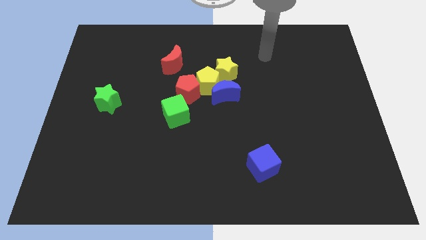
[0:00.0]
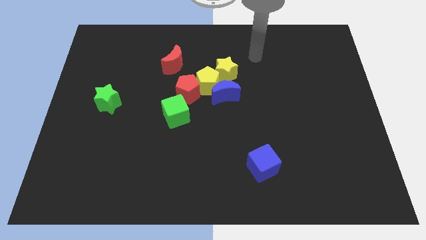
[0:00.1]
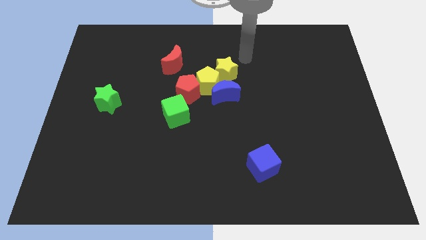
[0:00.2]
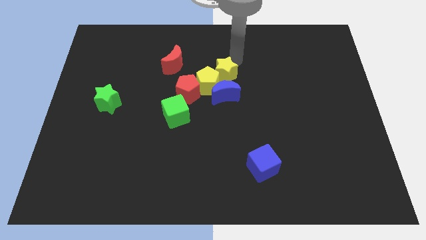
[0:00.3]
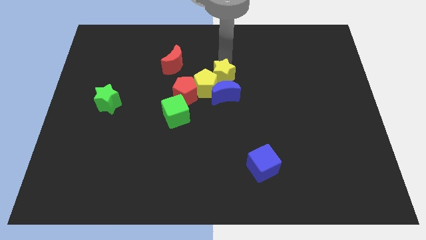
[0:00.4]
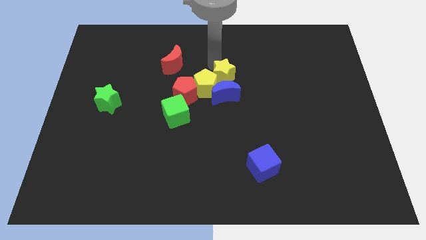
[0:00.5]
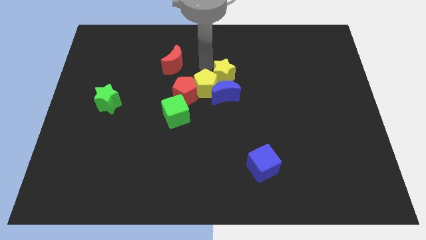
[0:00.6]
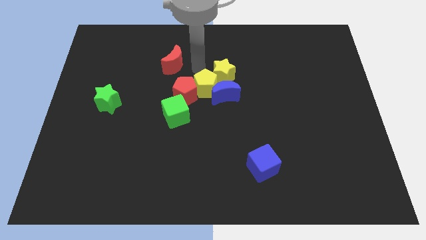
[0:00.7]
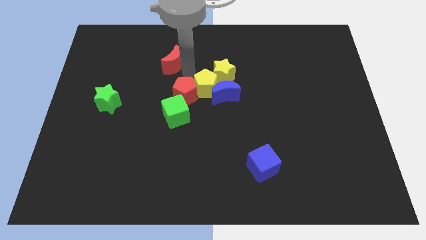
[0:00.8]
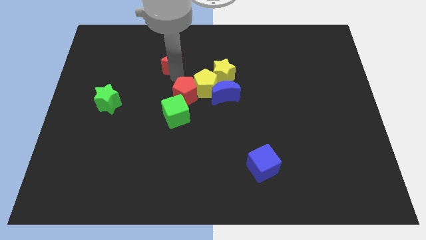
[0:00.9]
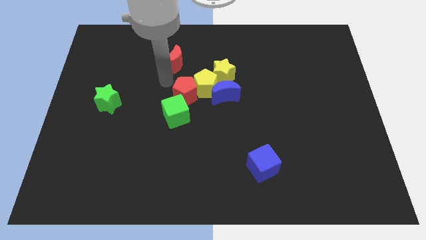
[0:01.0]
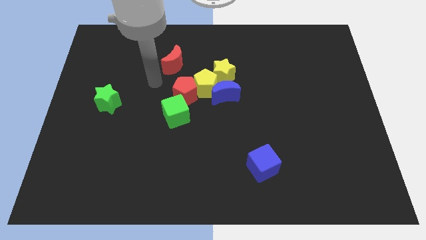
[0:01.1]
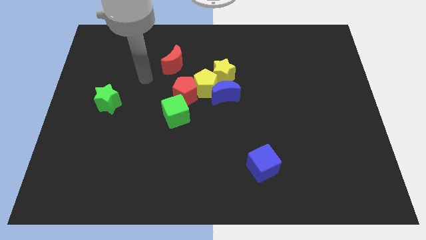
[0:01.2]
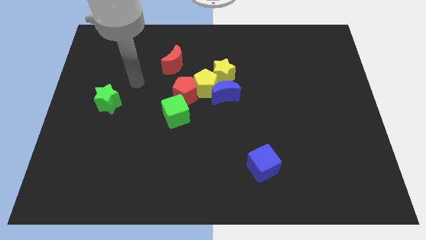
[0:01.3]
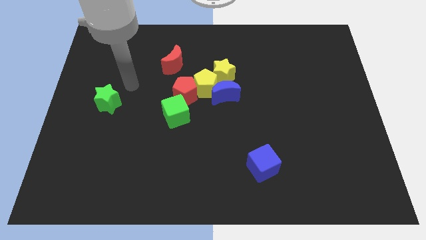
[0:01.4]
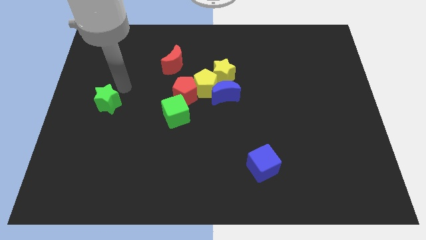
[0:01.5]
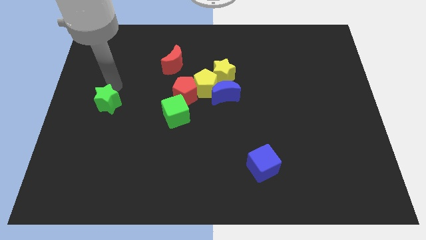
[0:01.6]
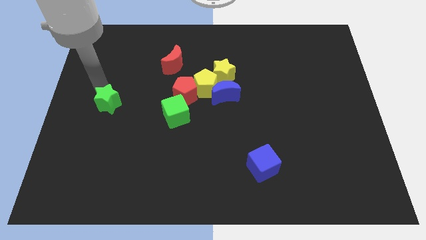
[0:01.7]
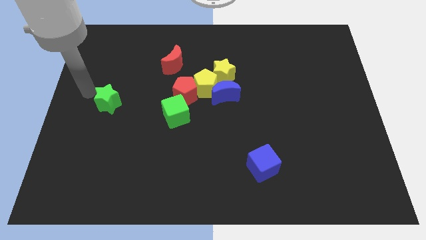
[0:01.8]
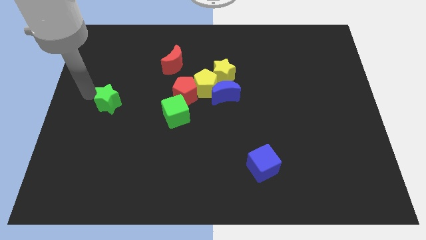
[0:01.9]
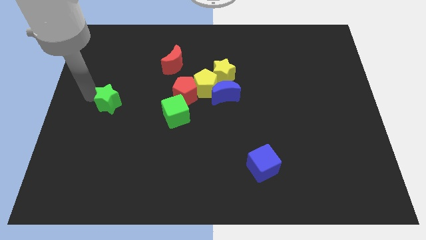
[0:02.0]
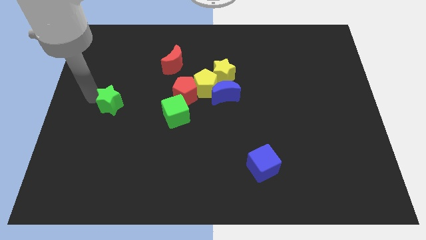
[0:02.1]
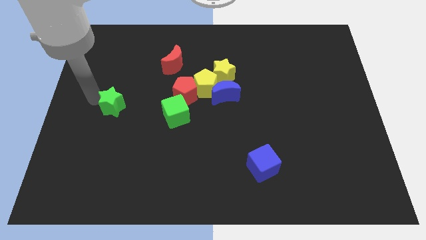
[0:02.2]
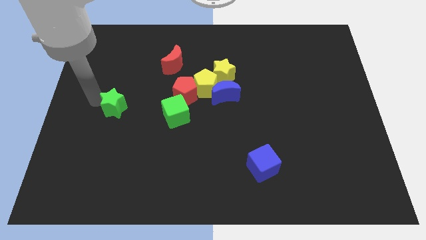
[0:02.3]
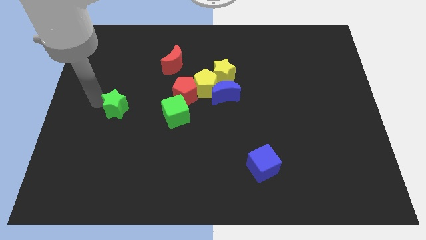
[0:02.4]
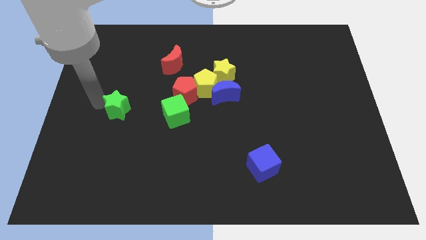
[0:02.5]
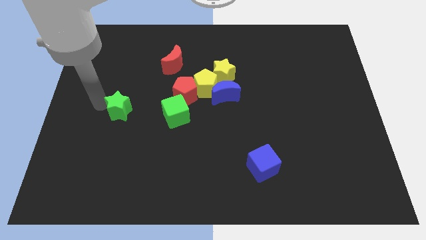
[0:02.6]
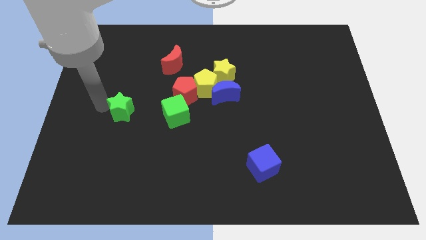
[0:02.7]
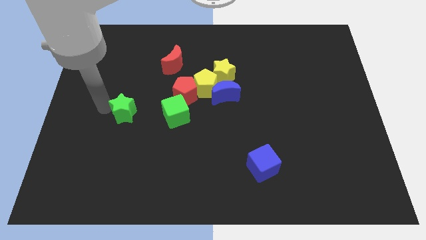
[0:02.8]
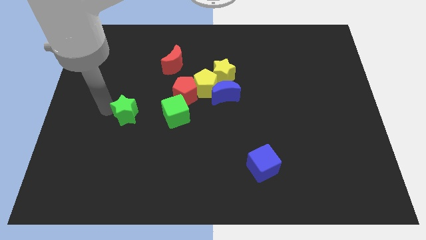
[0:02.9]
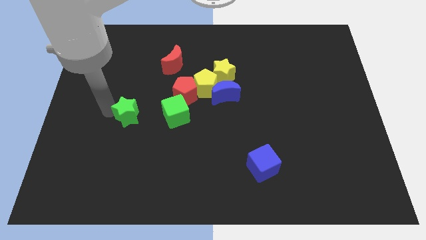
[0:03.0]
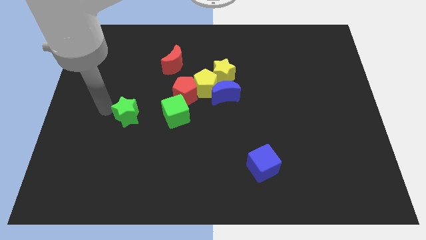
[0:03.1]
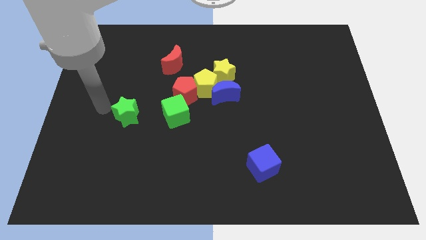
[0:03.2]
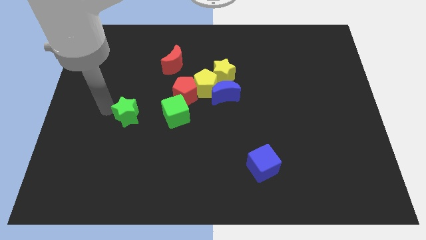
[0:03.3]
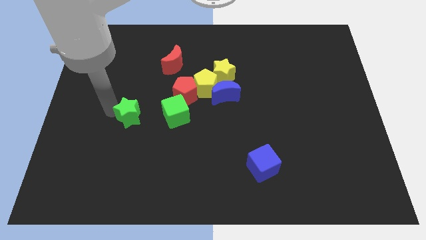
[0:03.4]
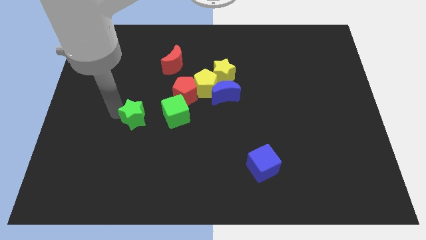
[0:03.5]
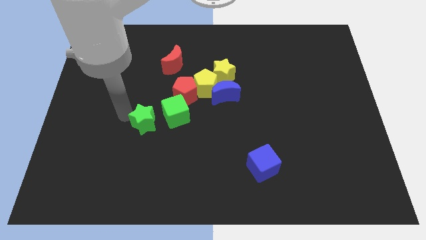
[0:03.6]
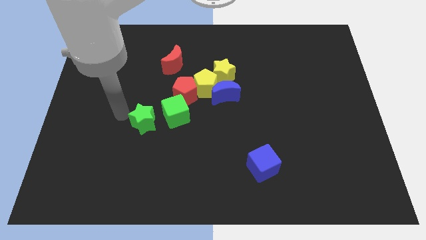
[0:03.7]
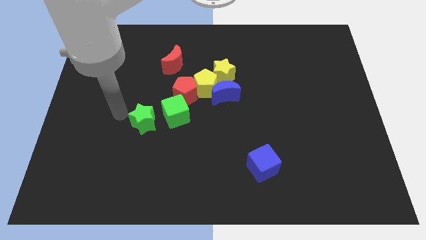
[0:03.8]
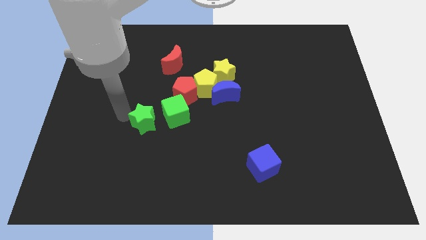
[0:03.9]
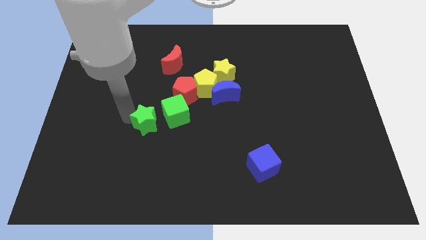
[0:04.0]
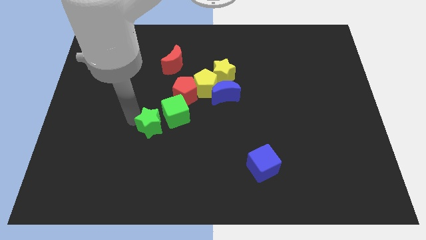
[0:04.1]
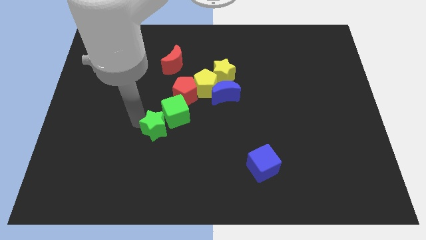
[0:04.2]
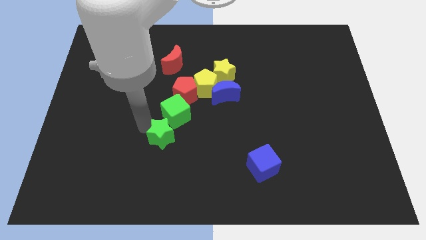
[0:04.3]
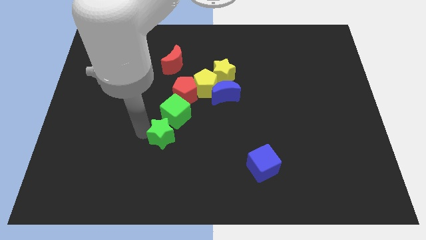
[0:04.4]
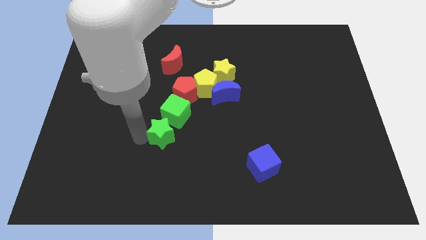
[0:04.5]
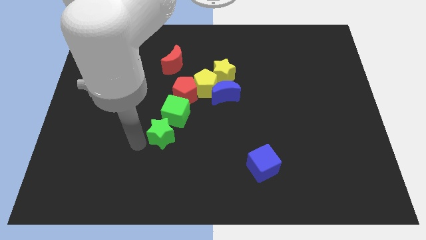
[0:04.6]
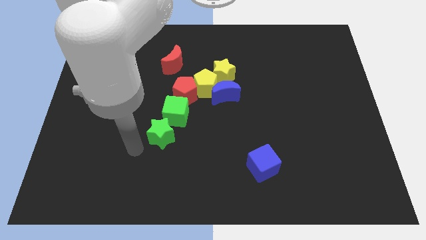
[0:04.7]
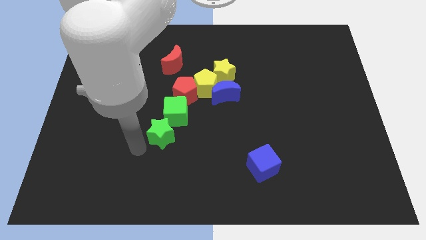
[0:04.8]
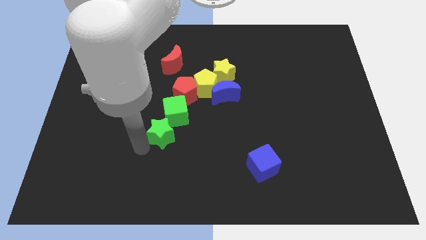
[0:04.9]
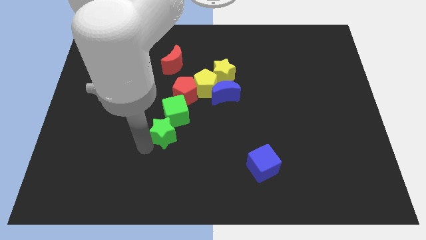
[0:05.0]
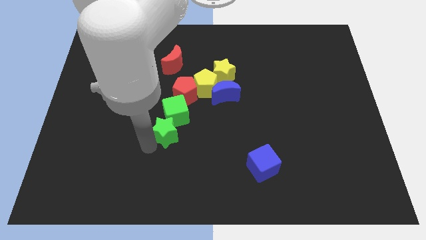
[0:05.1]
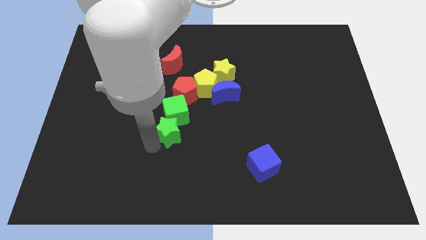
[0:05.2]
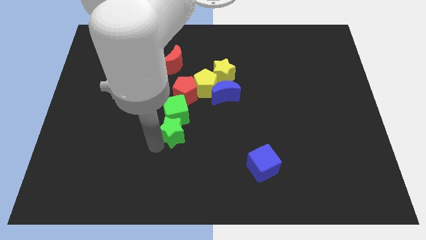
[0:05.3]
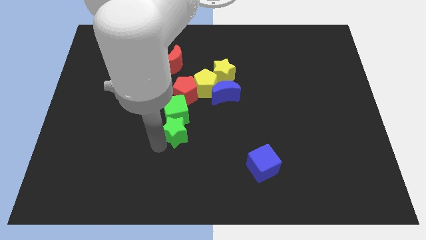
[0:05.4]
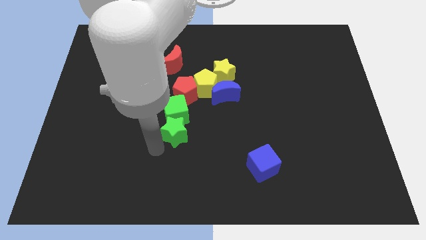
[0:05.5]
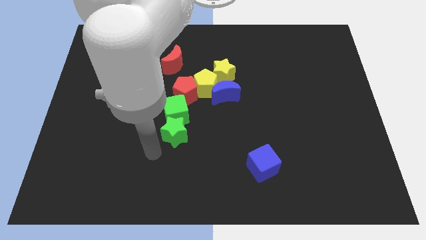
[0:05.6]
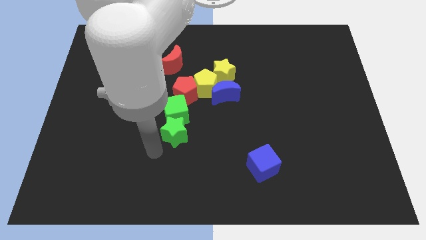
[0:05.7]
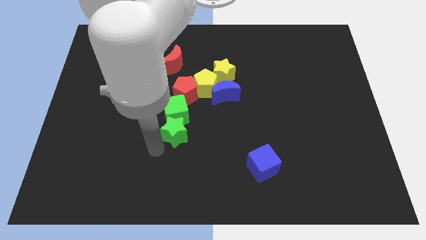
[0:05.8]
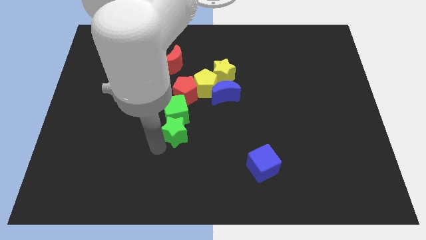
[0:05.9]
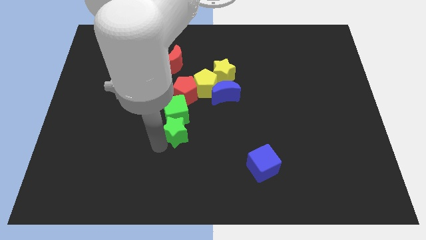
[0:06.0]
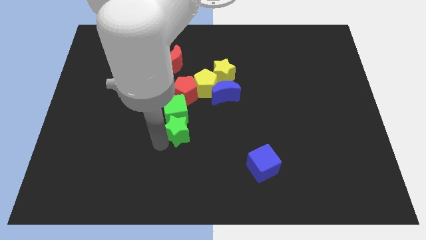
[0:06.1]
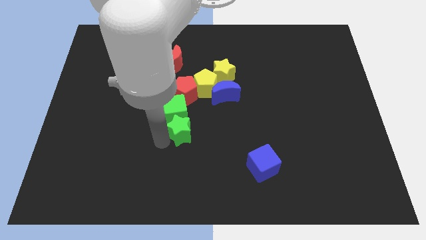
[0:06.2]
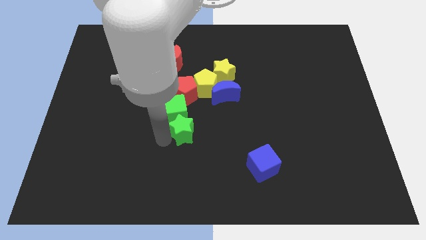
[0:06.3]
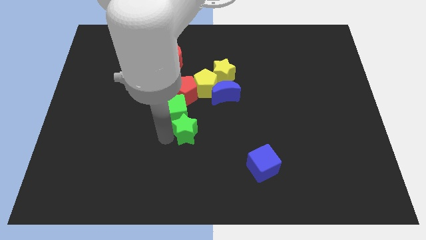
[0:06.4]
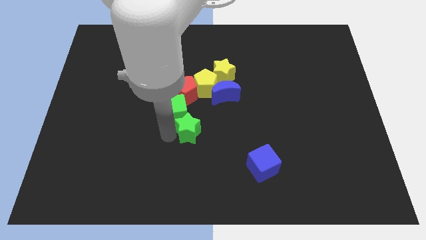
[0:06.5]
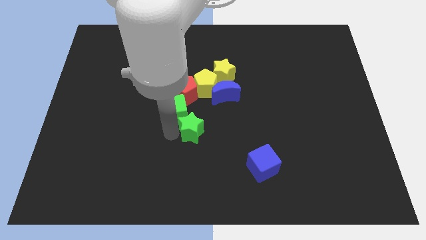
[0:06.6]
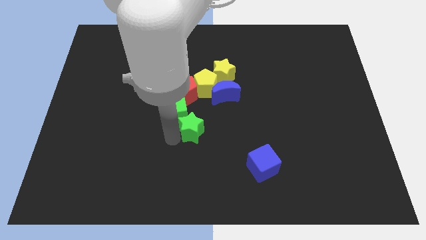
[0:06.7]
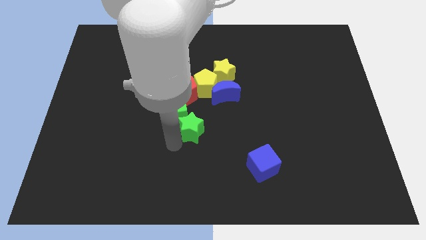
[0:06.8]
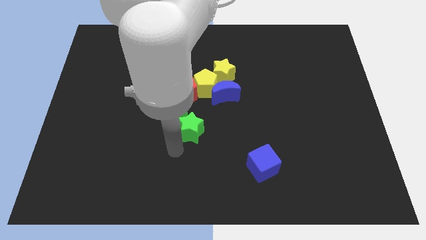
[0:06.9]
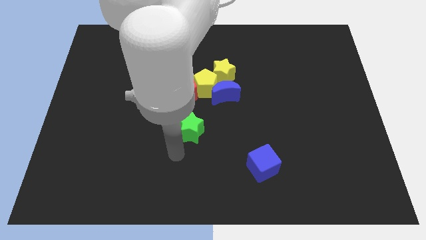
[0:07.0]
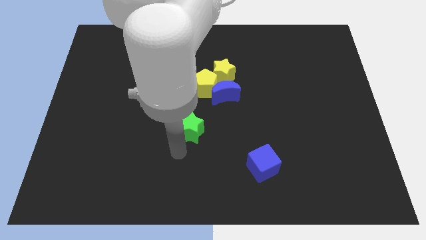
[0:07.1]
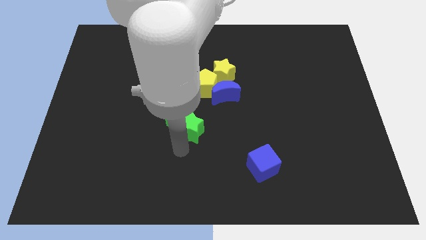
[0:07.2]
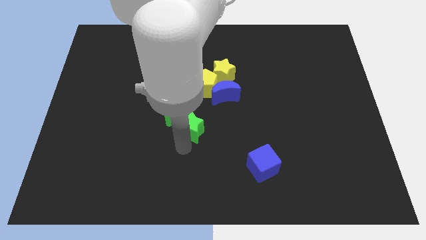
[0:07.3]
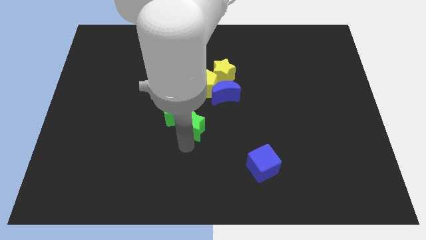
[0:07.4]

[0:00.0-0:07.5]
slide the green star diagonally down and to the left of the blue moon
